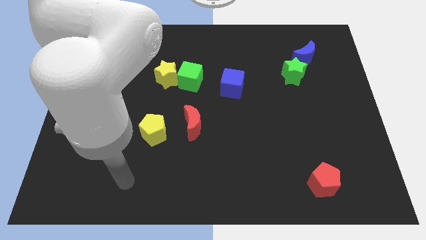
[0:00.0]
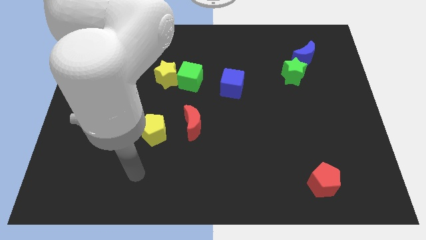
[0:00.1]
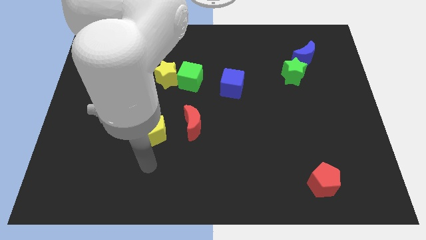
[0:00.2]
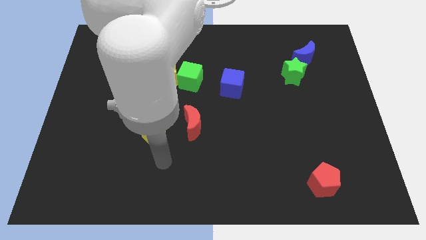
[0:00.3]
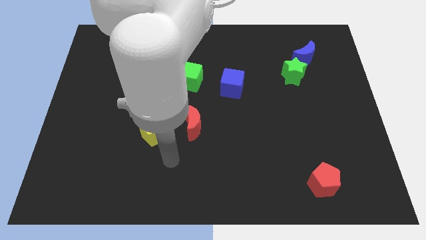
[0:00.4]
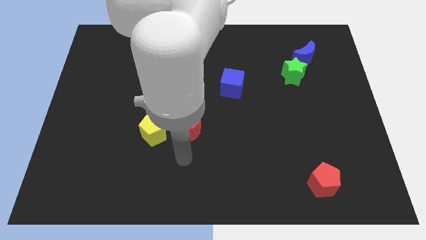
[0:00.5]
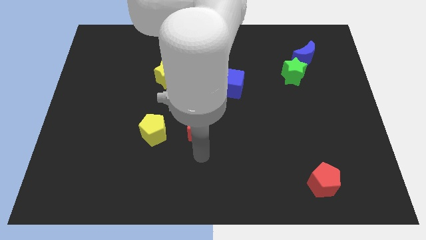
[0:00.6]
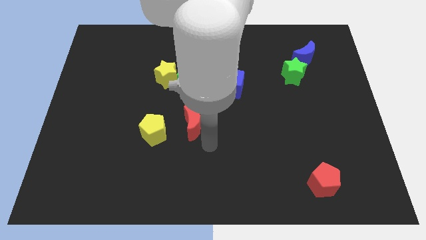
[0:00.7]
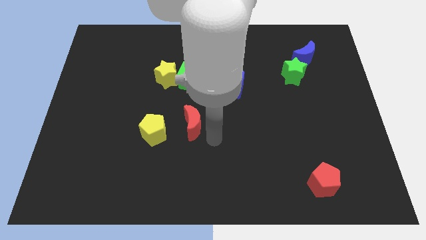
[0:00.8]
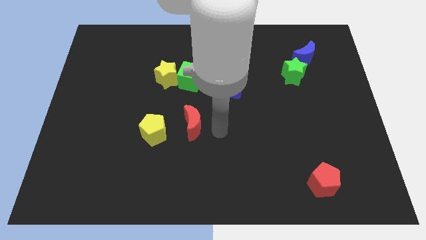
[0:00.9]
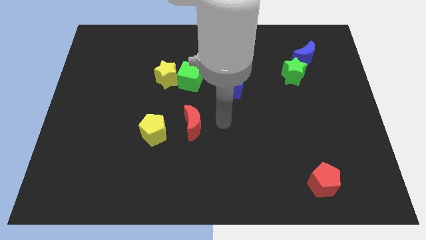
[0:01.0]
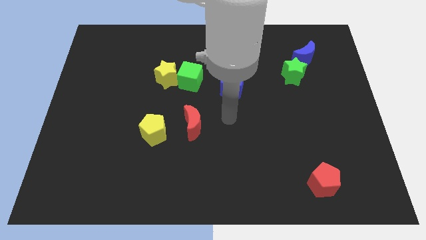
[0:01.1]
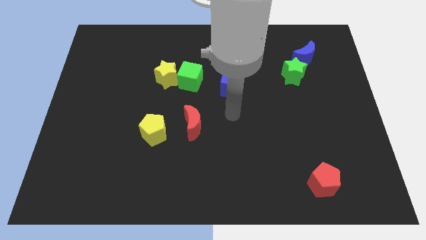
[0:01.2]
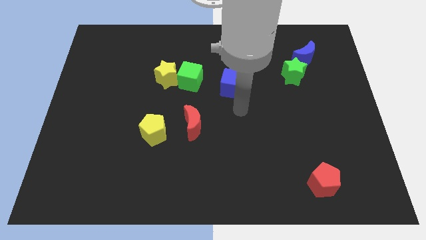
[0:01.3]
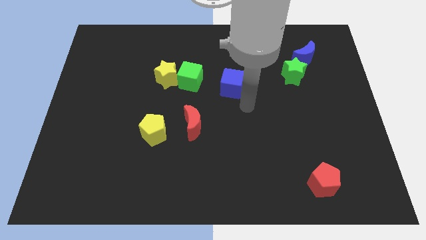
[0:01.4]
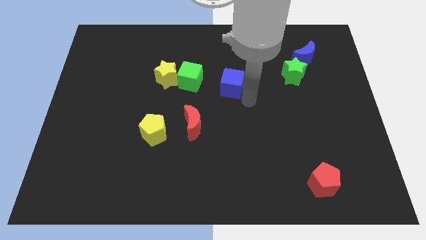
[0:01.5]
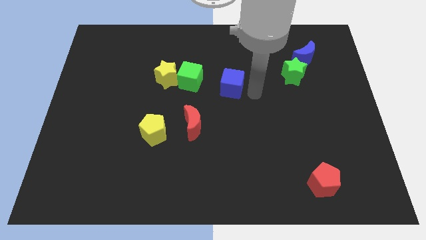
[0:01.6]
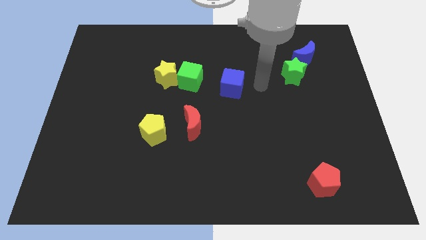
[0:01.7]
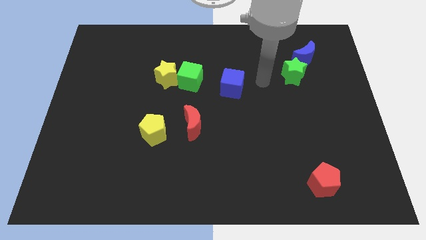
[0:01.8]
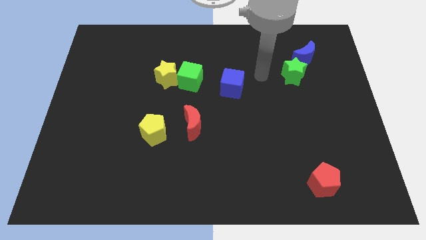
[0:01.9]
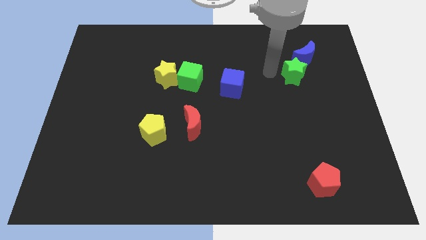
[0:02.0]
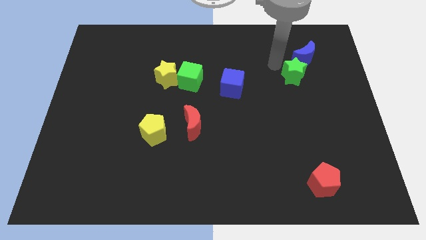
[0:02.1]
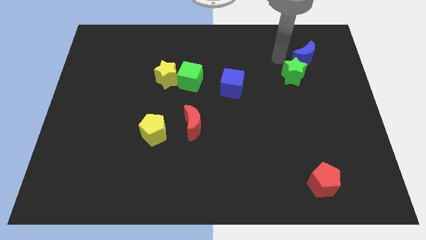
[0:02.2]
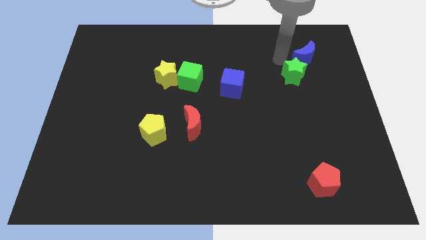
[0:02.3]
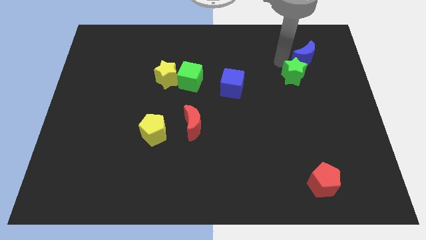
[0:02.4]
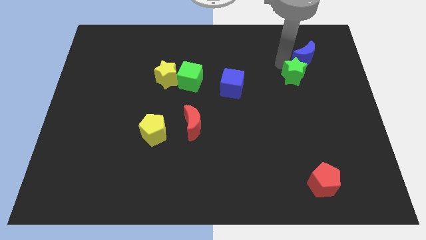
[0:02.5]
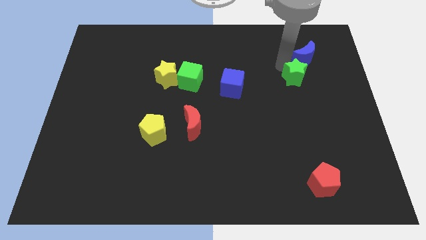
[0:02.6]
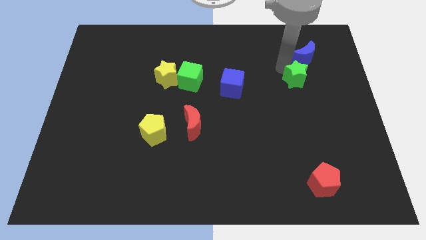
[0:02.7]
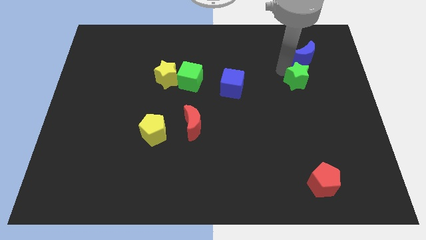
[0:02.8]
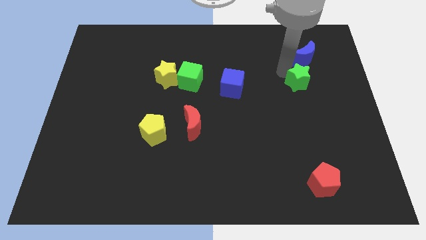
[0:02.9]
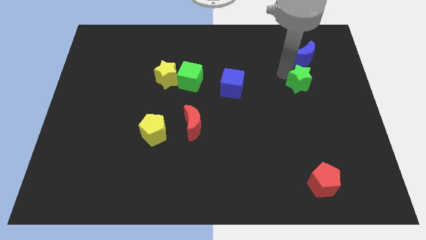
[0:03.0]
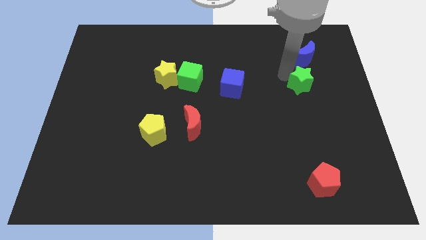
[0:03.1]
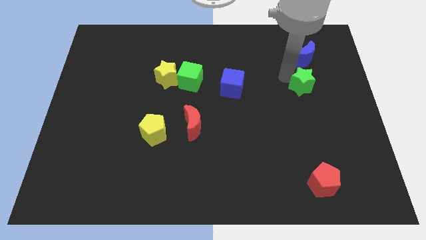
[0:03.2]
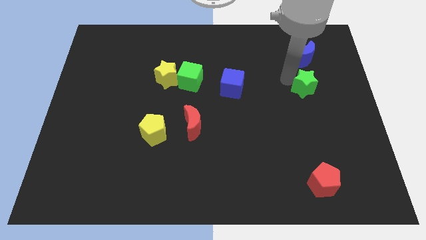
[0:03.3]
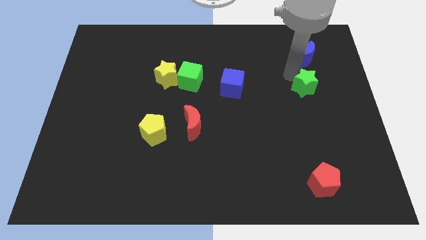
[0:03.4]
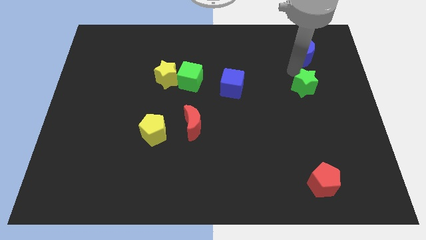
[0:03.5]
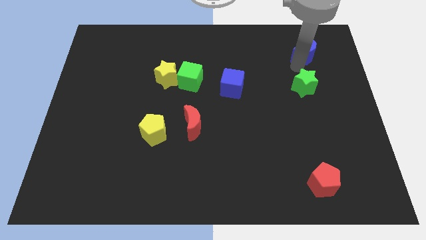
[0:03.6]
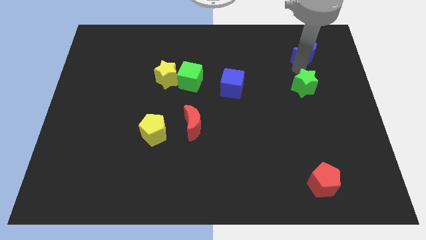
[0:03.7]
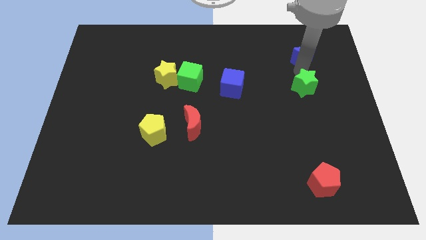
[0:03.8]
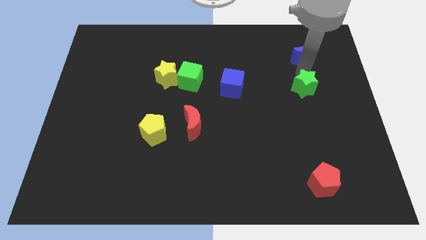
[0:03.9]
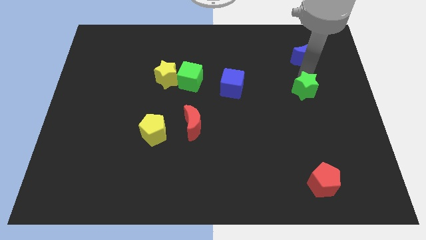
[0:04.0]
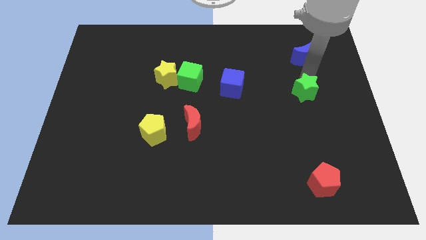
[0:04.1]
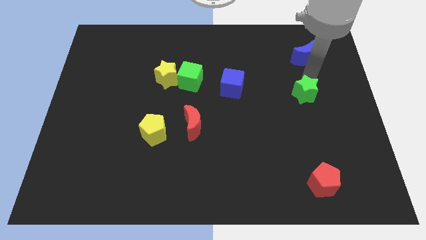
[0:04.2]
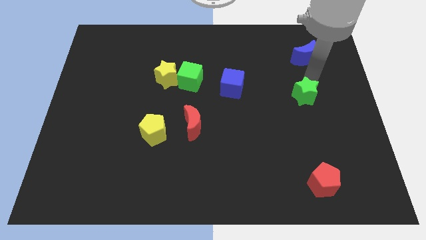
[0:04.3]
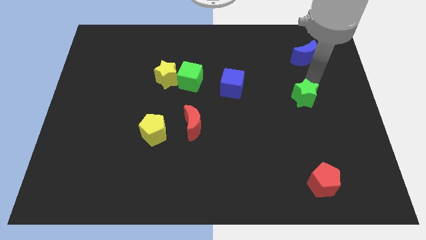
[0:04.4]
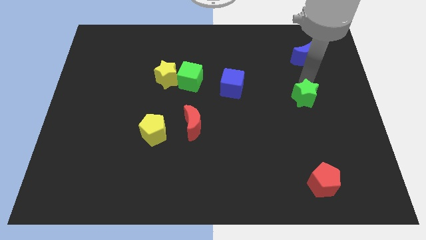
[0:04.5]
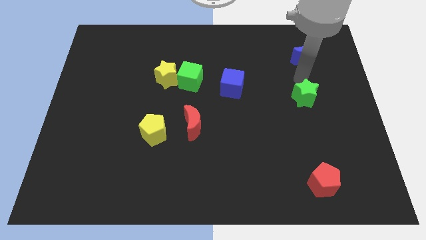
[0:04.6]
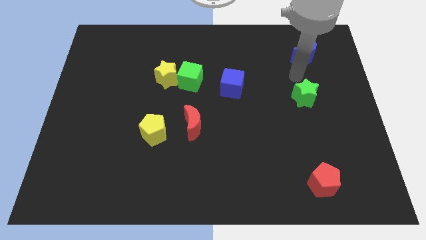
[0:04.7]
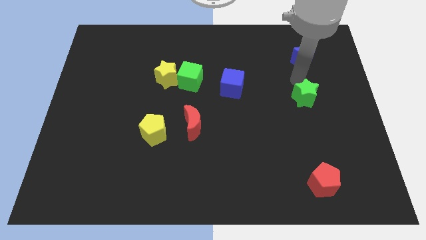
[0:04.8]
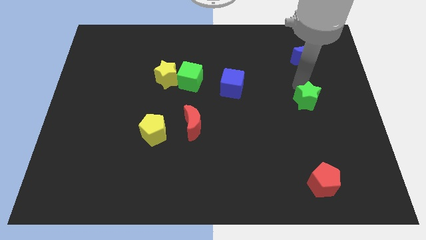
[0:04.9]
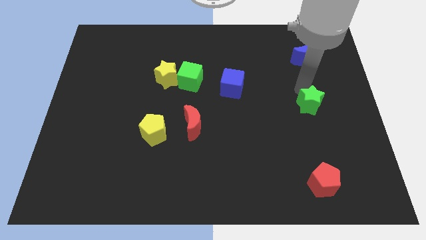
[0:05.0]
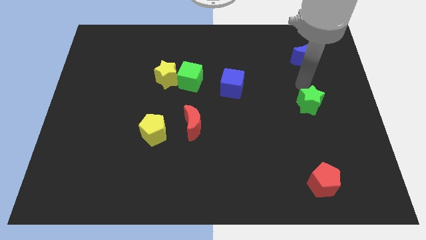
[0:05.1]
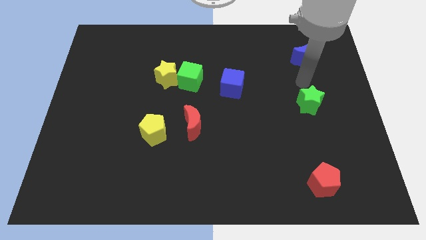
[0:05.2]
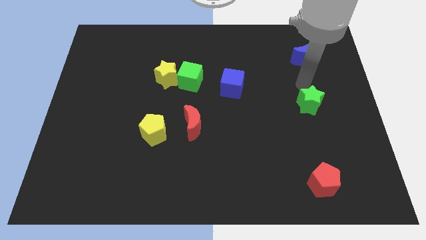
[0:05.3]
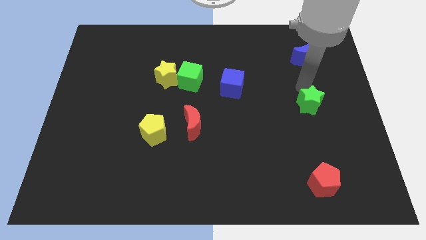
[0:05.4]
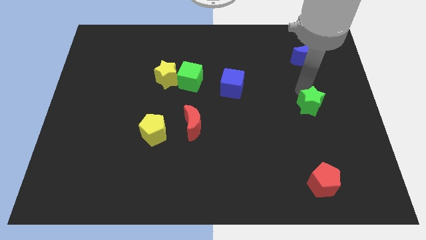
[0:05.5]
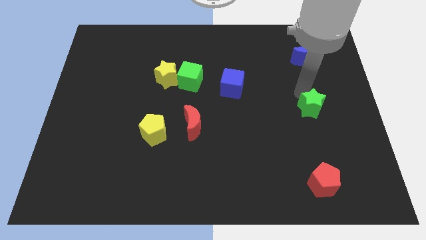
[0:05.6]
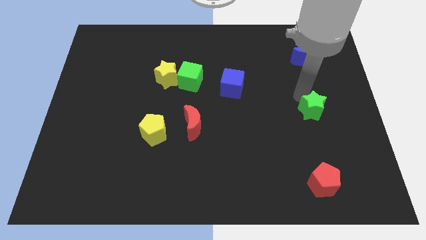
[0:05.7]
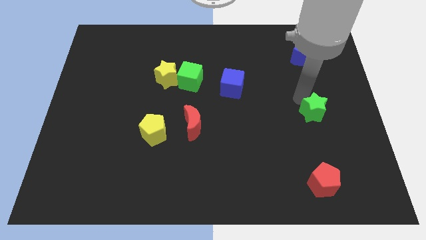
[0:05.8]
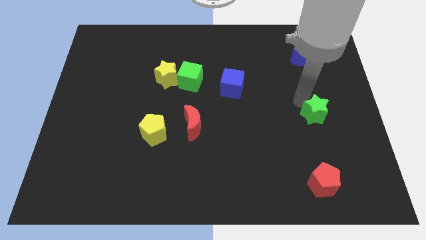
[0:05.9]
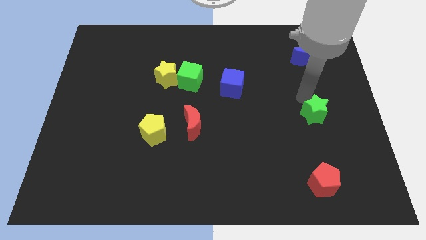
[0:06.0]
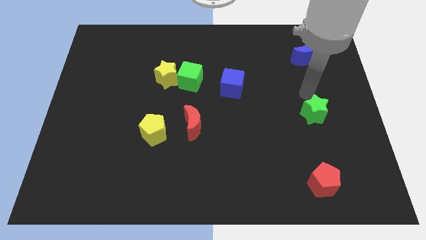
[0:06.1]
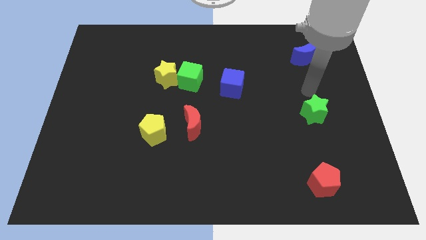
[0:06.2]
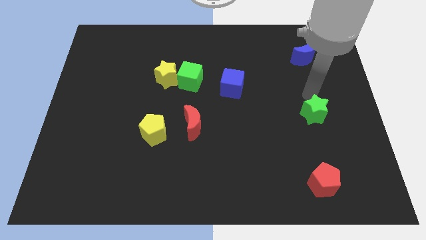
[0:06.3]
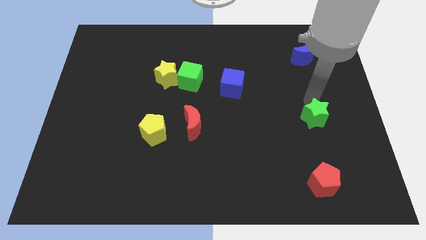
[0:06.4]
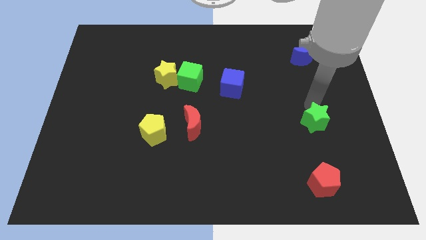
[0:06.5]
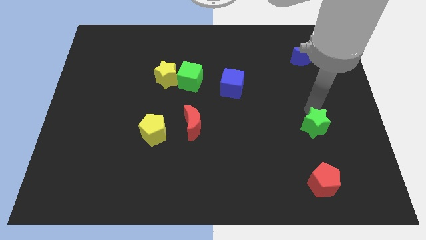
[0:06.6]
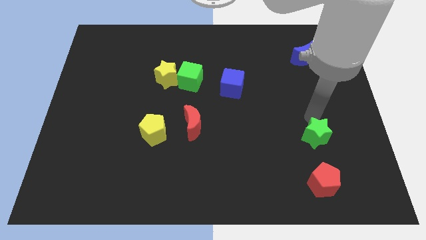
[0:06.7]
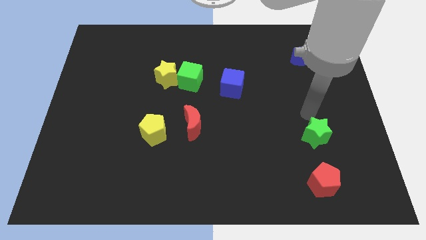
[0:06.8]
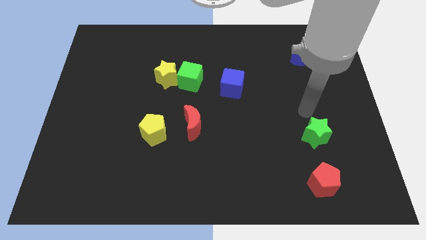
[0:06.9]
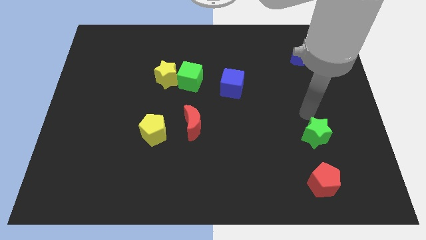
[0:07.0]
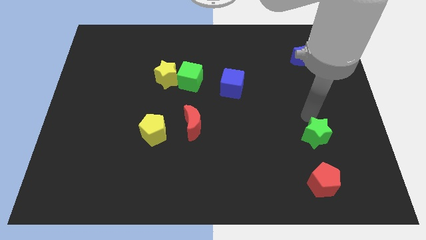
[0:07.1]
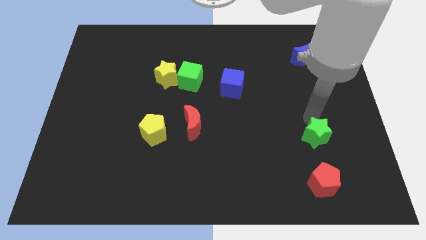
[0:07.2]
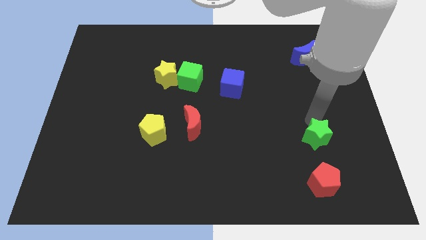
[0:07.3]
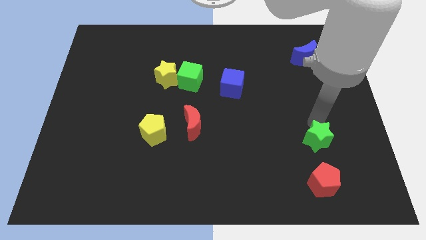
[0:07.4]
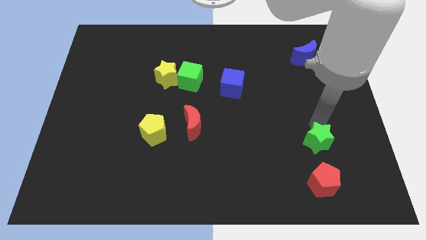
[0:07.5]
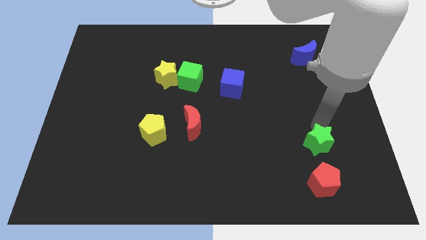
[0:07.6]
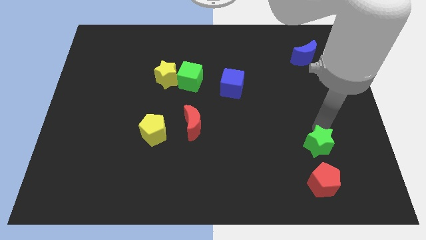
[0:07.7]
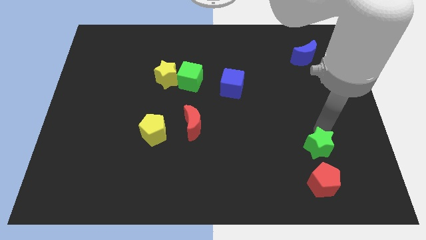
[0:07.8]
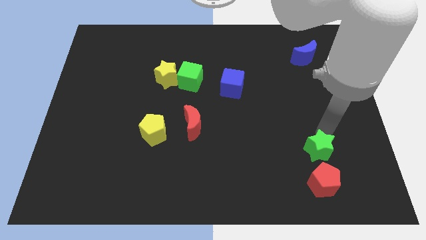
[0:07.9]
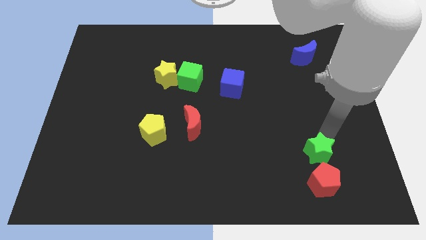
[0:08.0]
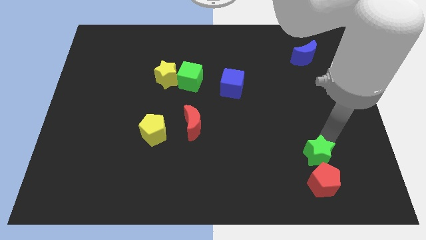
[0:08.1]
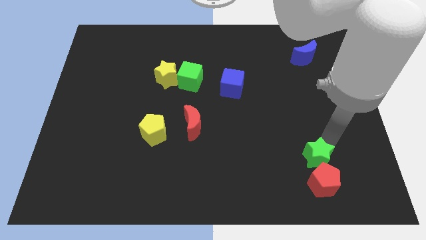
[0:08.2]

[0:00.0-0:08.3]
put the green star next to the red pentagon
